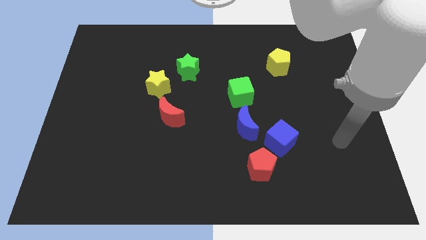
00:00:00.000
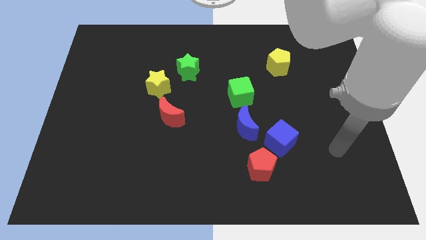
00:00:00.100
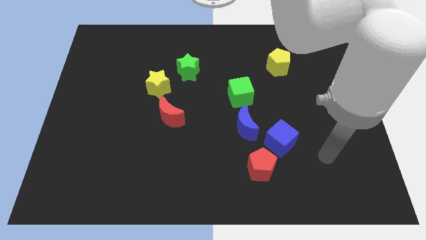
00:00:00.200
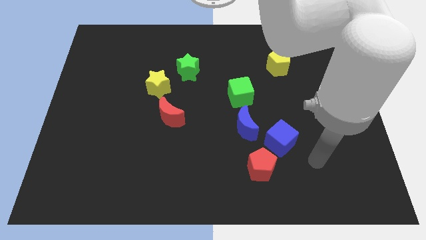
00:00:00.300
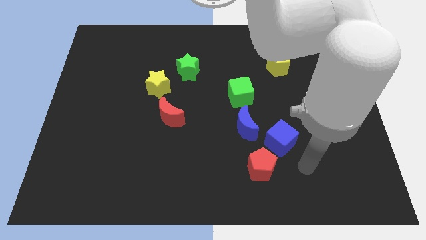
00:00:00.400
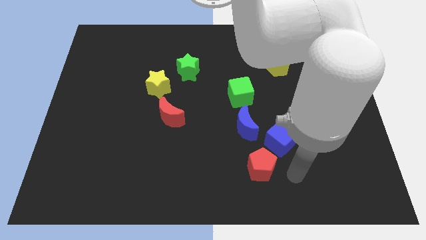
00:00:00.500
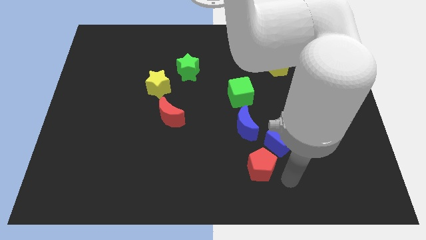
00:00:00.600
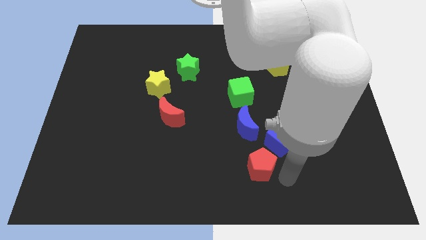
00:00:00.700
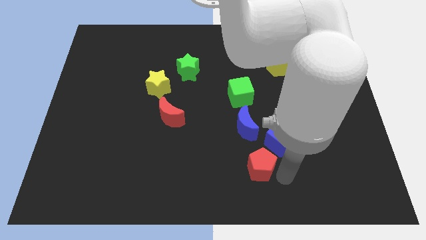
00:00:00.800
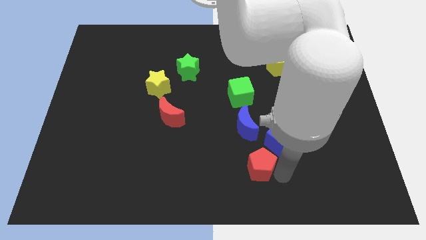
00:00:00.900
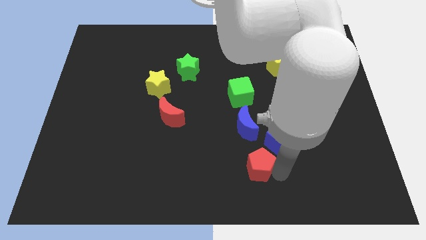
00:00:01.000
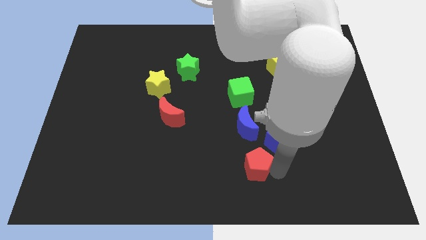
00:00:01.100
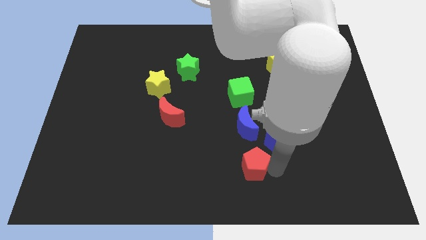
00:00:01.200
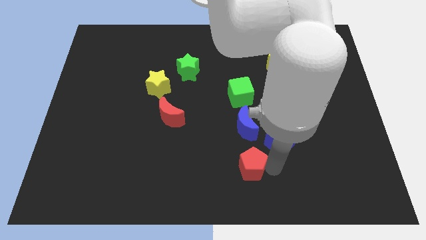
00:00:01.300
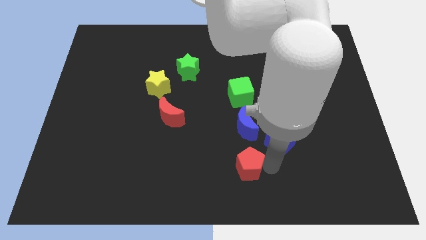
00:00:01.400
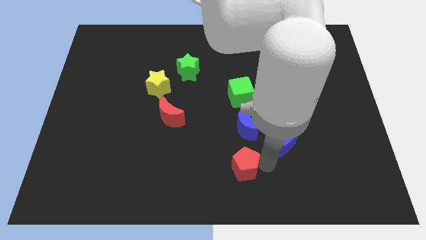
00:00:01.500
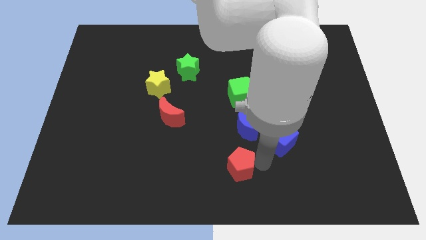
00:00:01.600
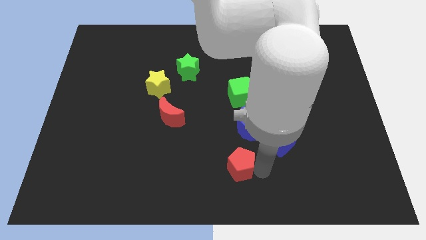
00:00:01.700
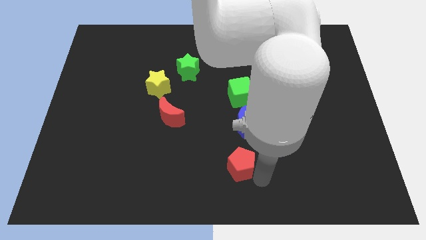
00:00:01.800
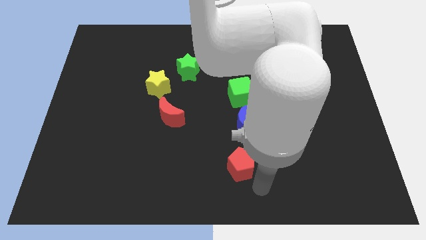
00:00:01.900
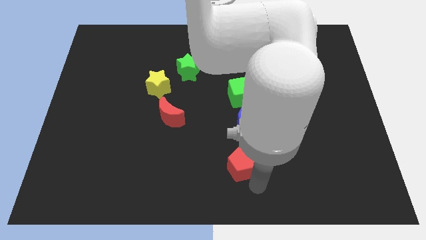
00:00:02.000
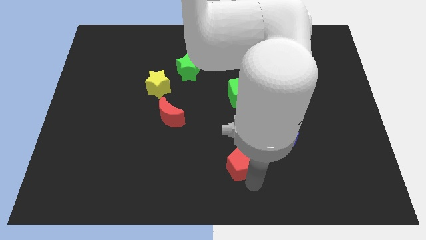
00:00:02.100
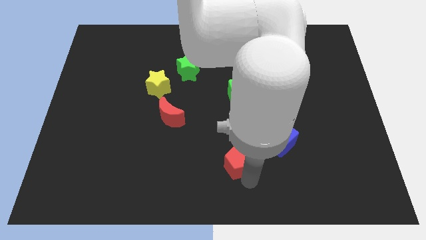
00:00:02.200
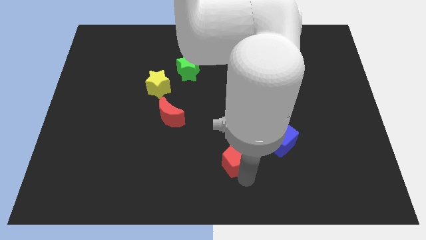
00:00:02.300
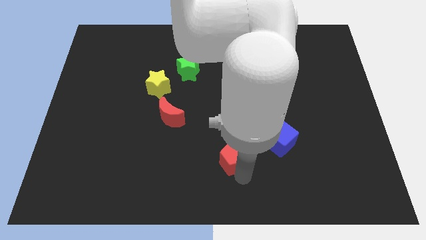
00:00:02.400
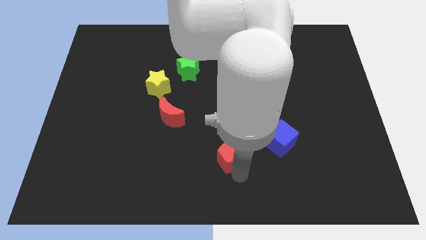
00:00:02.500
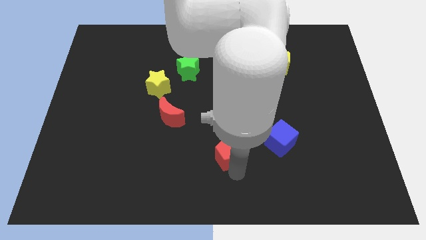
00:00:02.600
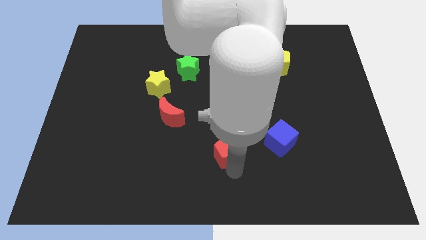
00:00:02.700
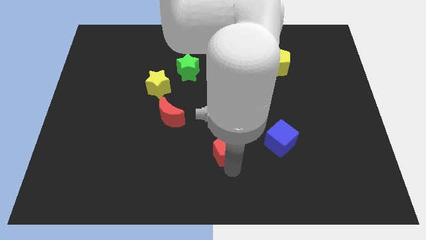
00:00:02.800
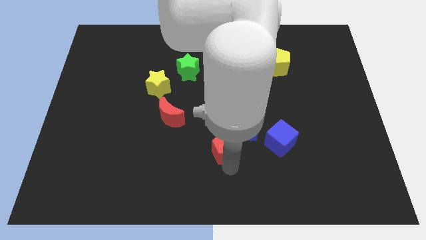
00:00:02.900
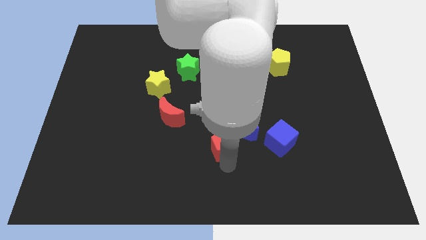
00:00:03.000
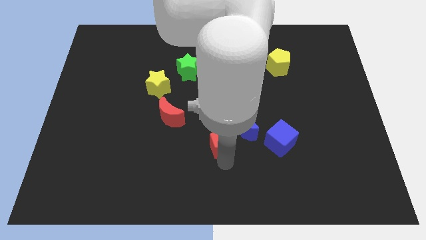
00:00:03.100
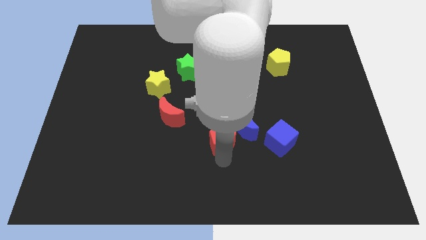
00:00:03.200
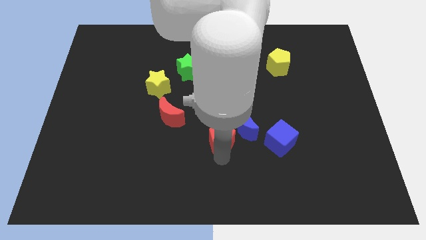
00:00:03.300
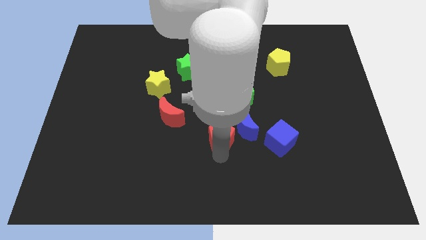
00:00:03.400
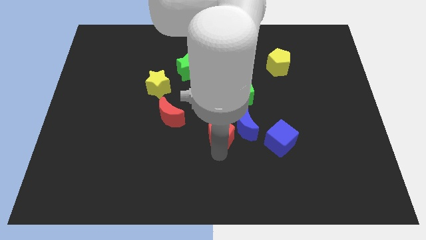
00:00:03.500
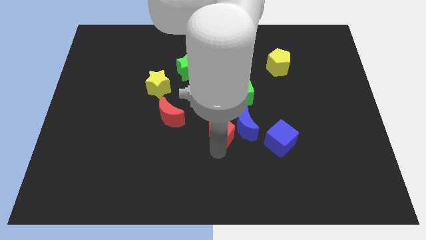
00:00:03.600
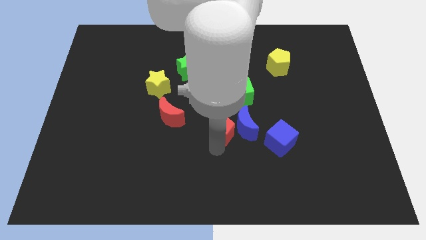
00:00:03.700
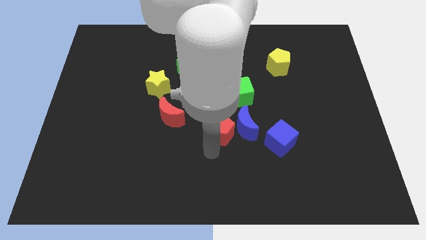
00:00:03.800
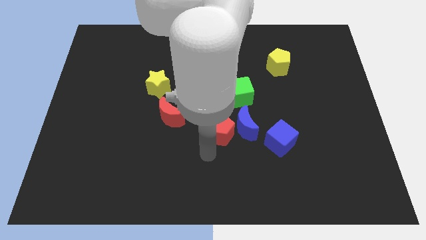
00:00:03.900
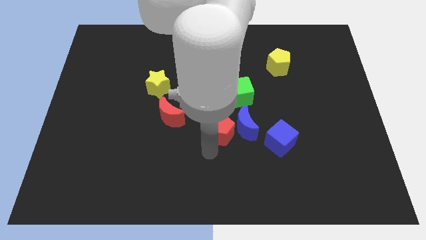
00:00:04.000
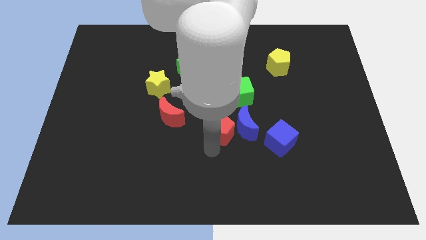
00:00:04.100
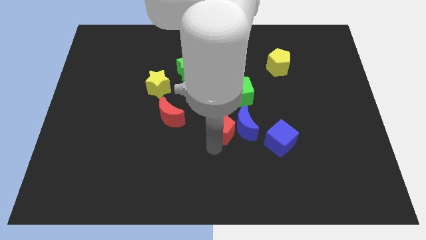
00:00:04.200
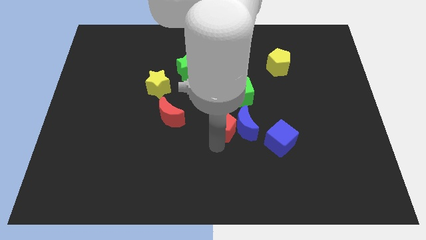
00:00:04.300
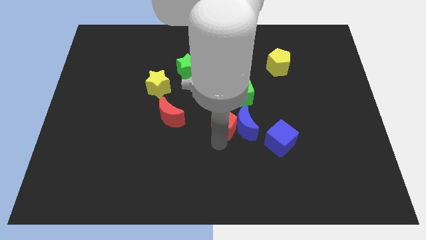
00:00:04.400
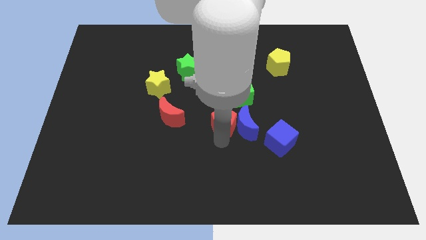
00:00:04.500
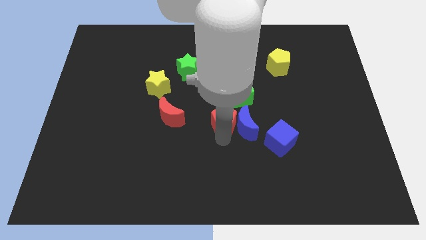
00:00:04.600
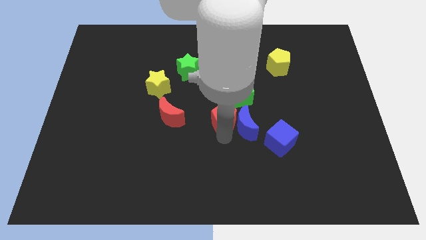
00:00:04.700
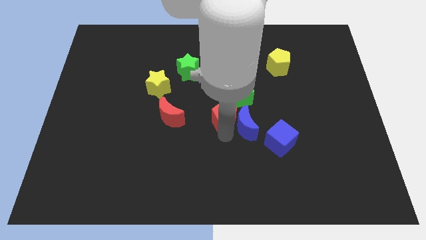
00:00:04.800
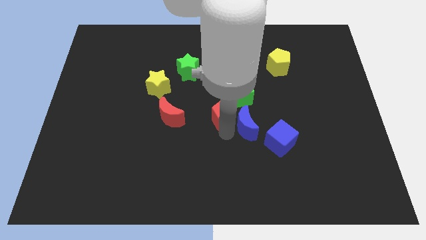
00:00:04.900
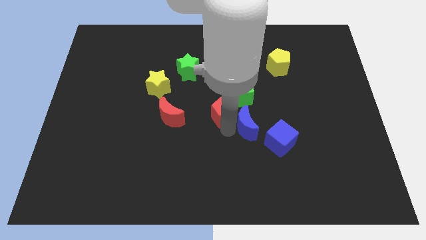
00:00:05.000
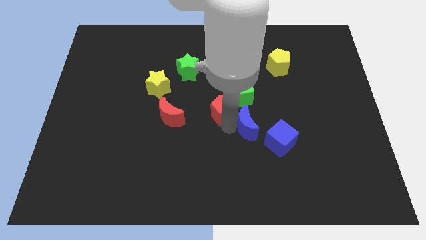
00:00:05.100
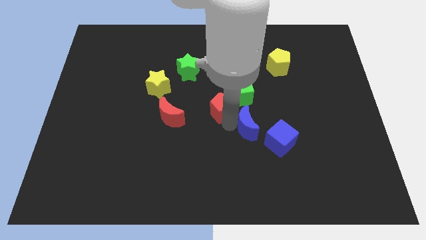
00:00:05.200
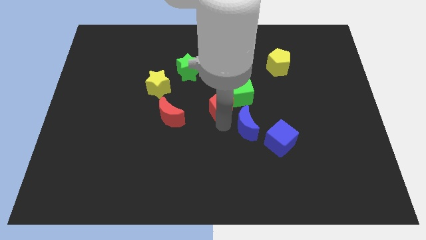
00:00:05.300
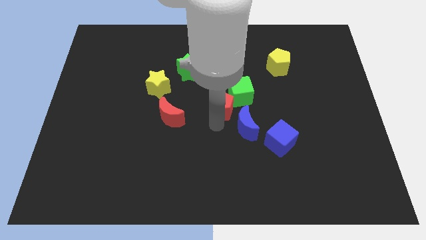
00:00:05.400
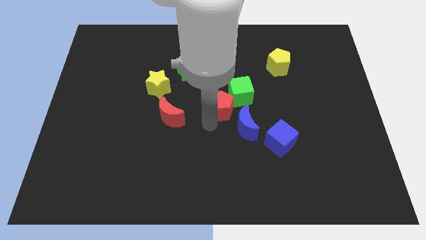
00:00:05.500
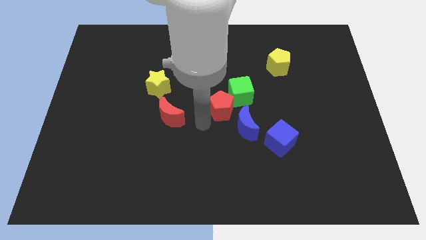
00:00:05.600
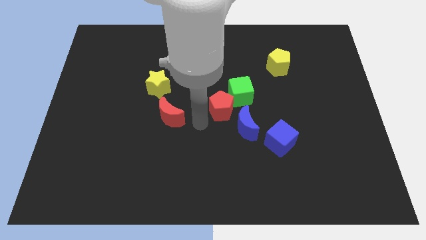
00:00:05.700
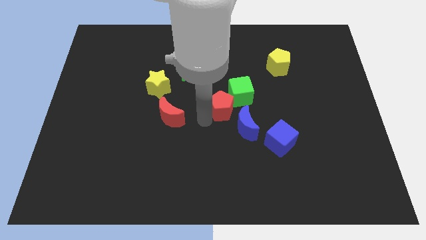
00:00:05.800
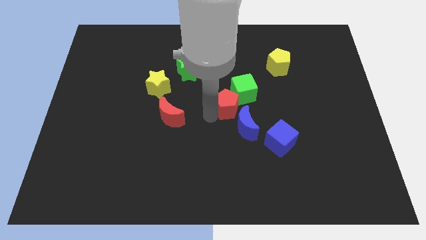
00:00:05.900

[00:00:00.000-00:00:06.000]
put the red pentagon close to the green cube
